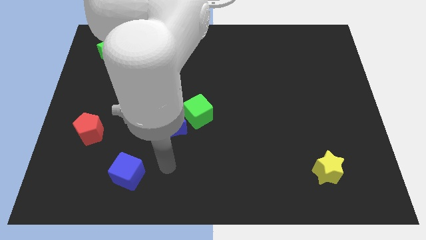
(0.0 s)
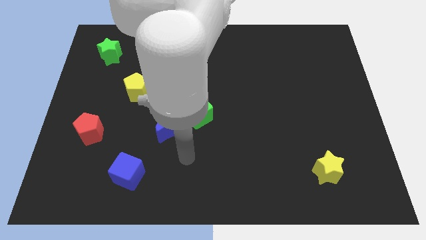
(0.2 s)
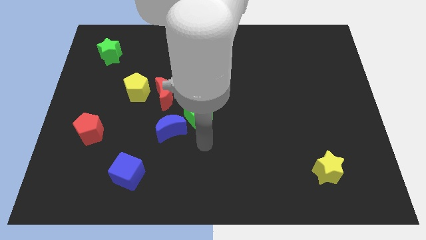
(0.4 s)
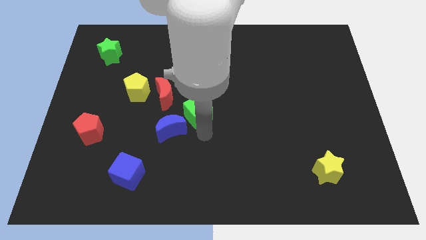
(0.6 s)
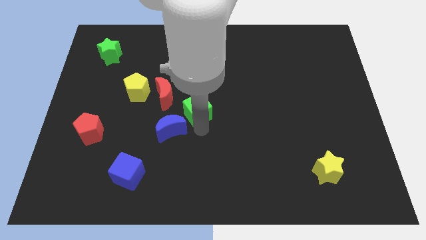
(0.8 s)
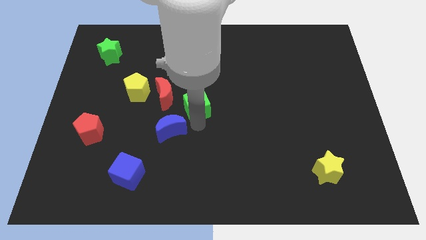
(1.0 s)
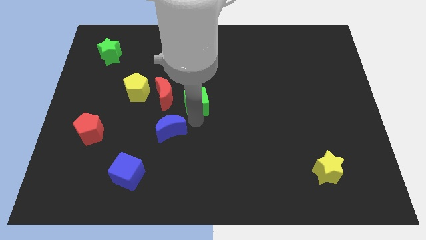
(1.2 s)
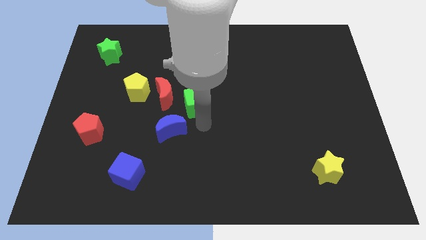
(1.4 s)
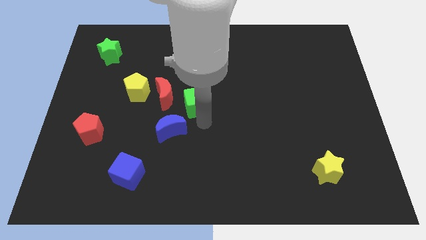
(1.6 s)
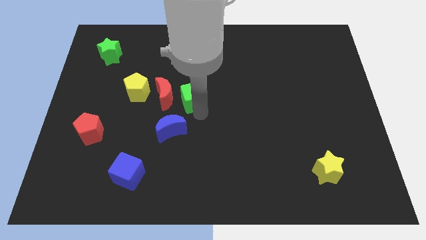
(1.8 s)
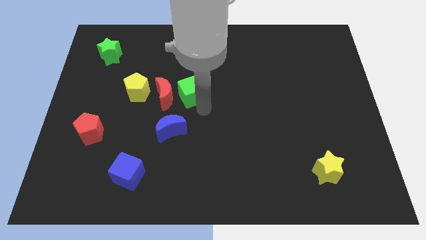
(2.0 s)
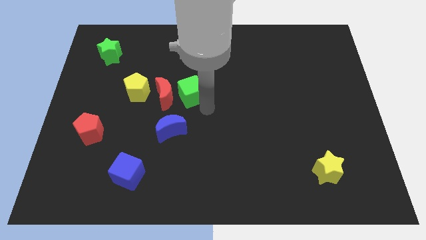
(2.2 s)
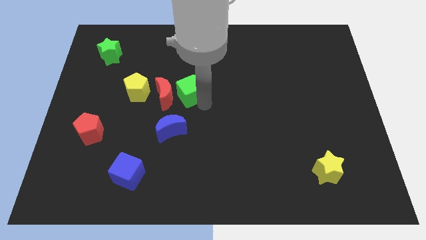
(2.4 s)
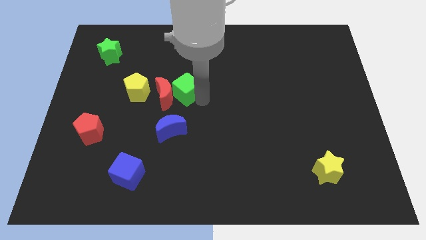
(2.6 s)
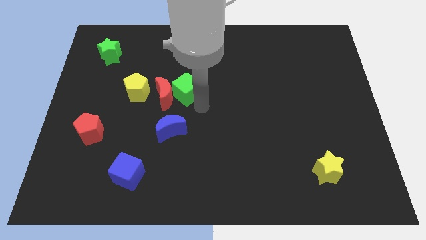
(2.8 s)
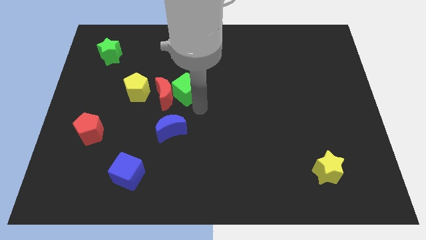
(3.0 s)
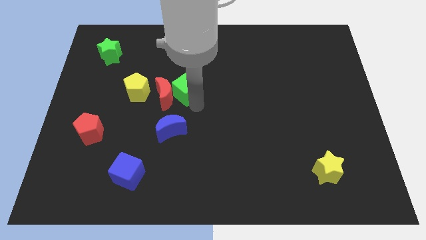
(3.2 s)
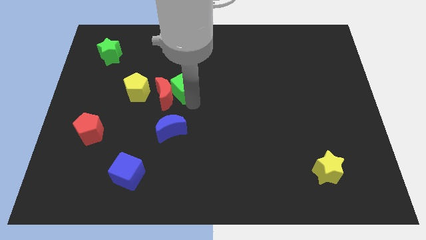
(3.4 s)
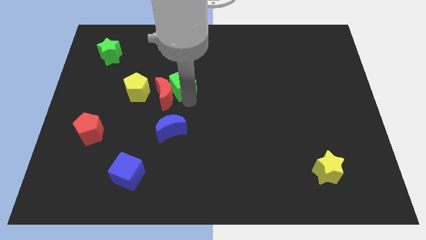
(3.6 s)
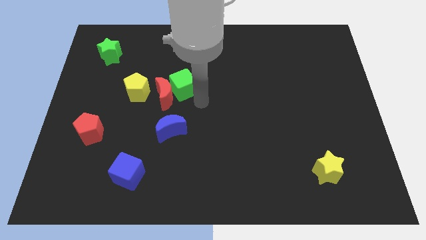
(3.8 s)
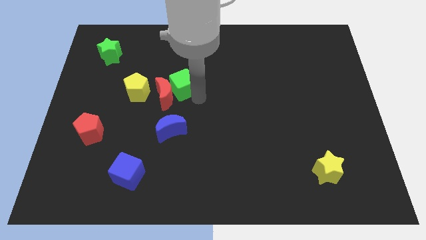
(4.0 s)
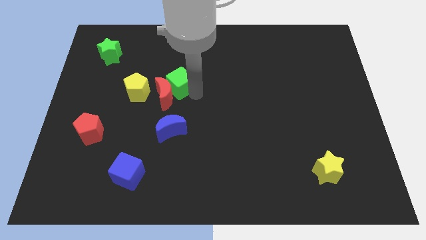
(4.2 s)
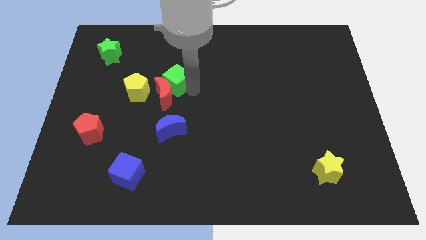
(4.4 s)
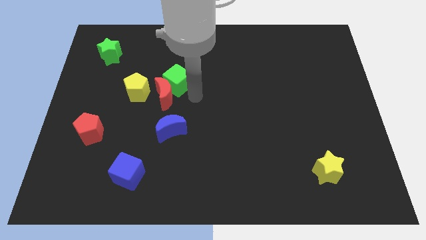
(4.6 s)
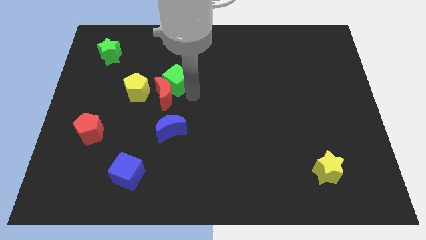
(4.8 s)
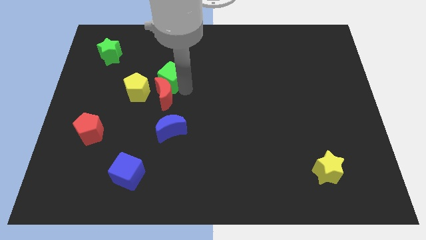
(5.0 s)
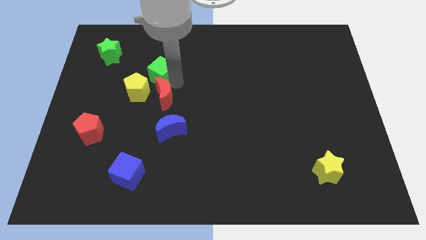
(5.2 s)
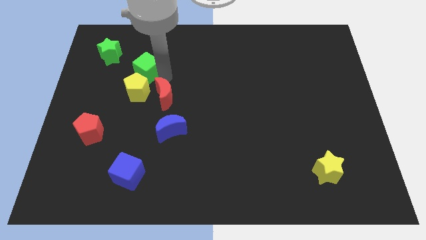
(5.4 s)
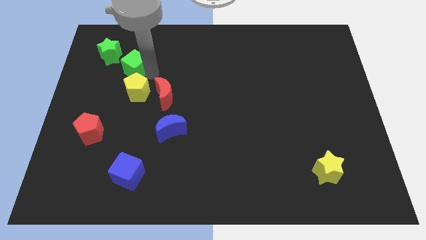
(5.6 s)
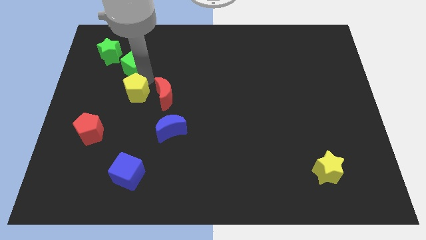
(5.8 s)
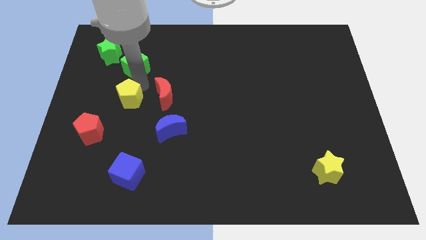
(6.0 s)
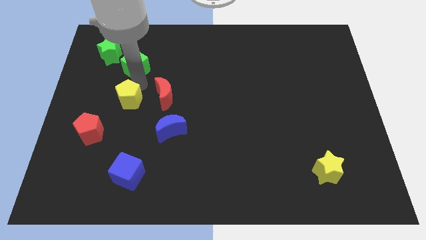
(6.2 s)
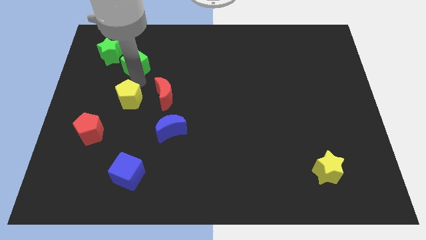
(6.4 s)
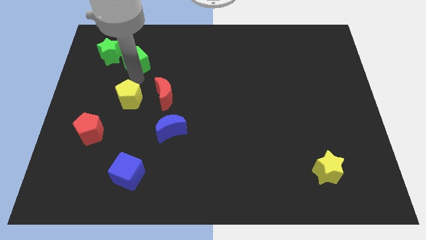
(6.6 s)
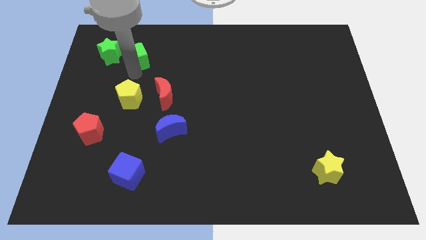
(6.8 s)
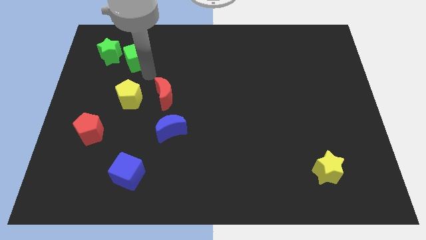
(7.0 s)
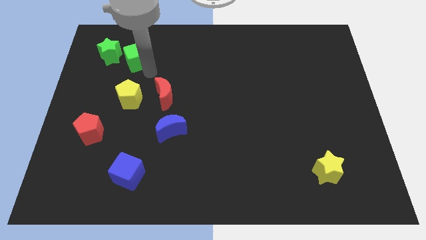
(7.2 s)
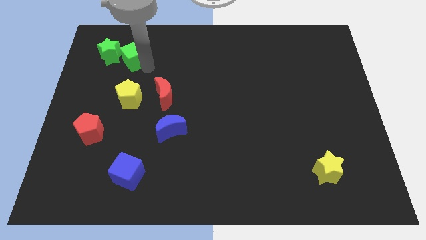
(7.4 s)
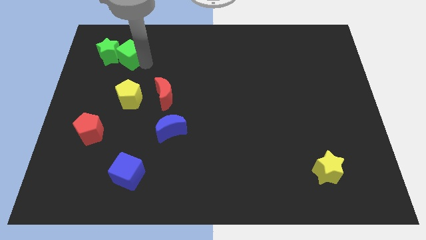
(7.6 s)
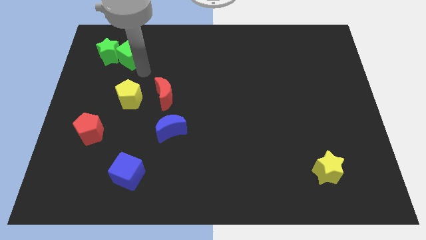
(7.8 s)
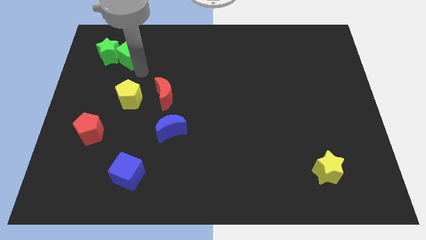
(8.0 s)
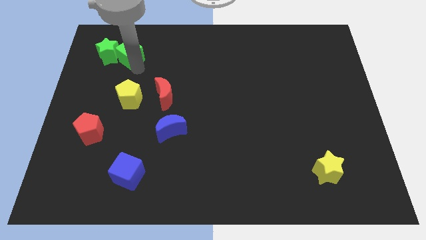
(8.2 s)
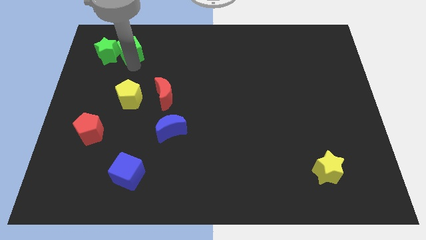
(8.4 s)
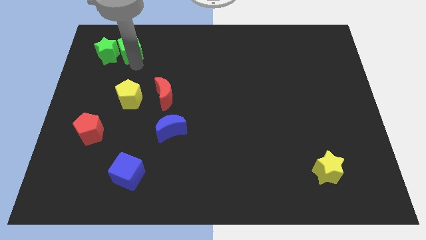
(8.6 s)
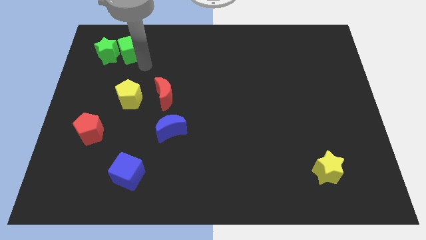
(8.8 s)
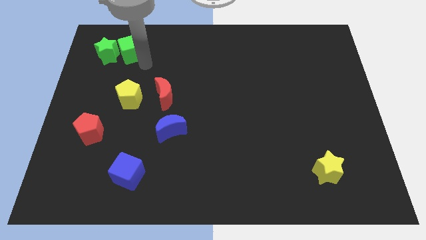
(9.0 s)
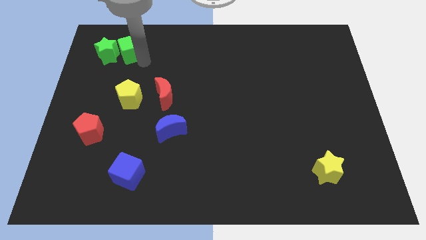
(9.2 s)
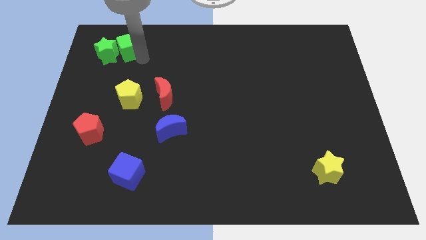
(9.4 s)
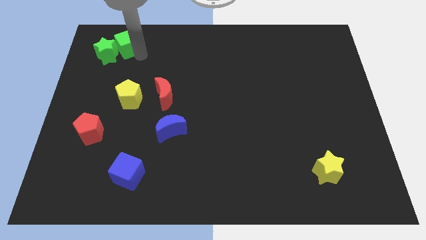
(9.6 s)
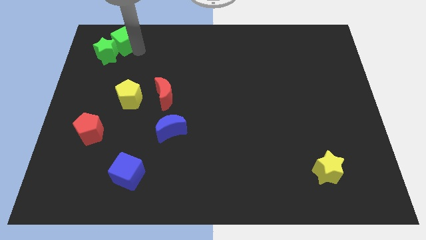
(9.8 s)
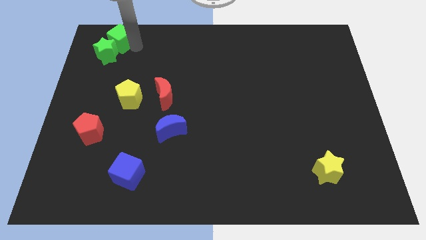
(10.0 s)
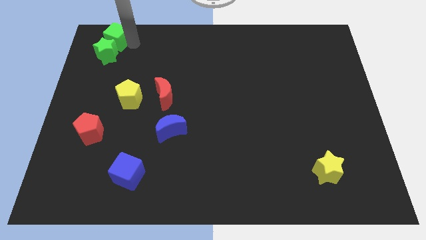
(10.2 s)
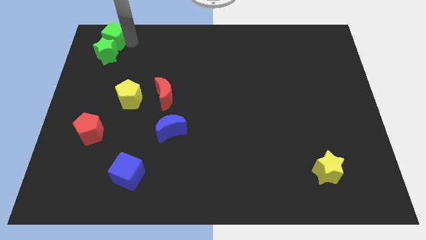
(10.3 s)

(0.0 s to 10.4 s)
put the green cube to the top left of the board

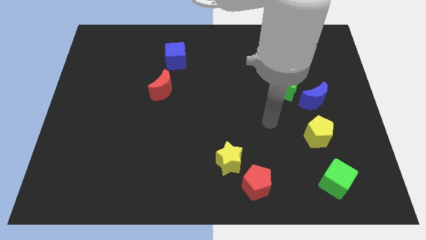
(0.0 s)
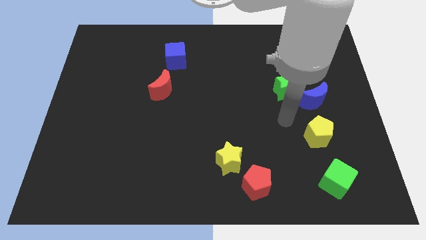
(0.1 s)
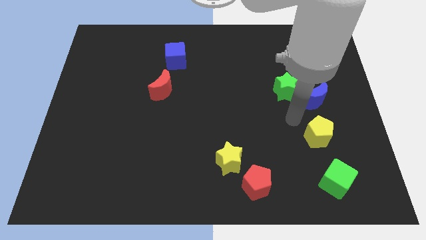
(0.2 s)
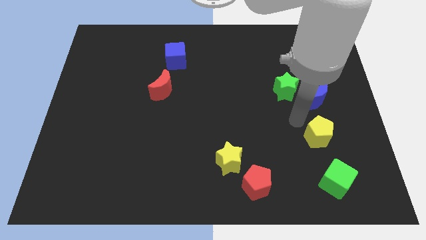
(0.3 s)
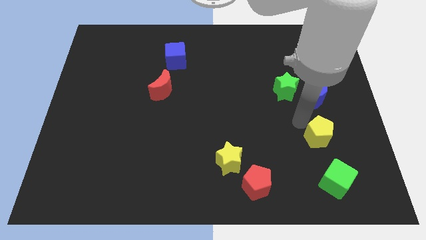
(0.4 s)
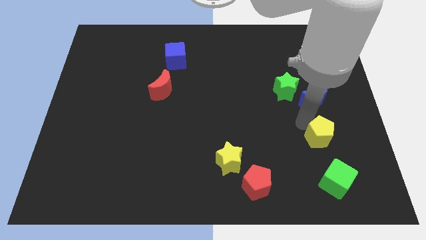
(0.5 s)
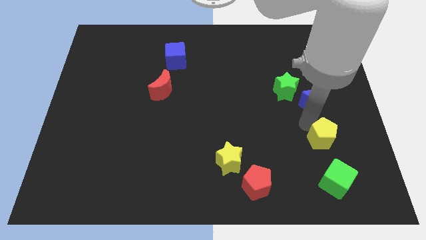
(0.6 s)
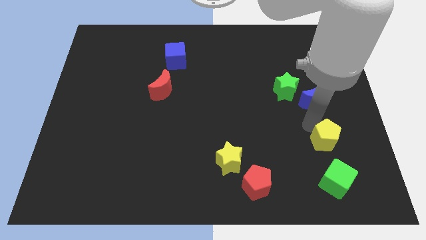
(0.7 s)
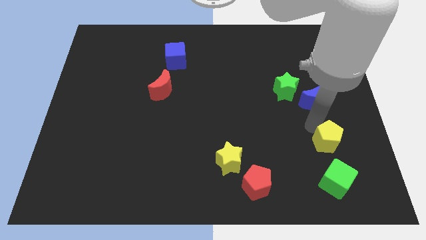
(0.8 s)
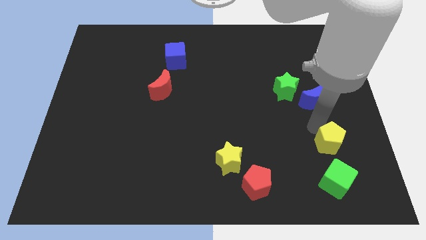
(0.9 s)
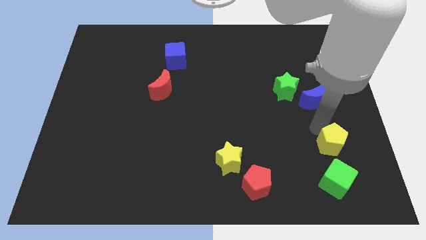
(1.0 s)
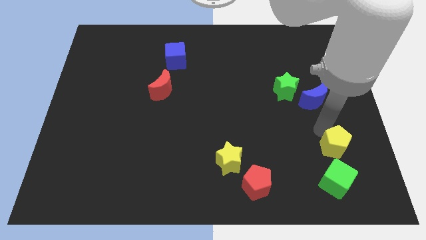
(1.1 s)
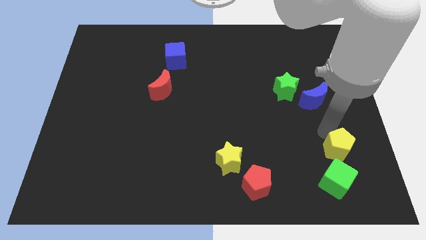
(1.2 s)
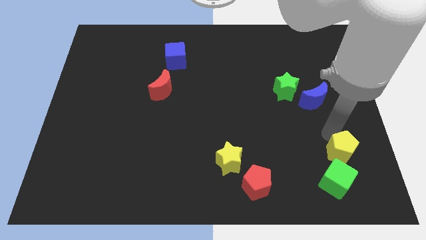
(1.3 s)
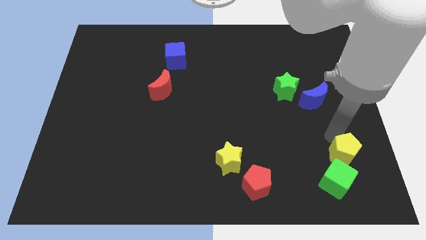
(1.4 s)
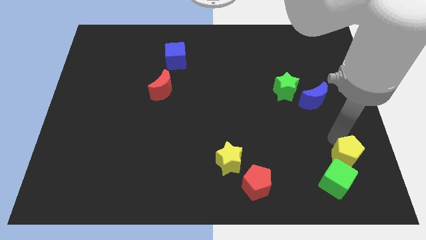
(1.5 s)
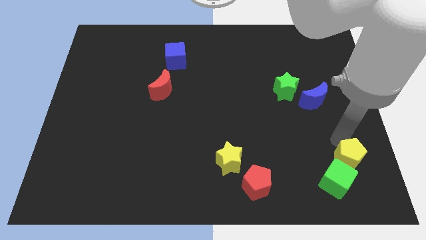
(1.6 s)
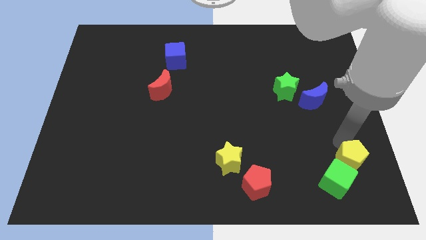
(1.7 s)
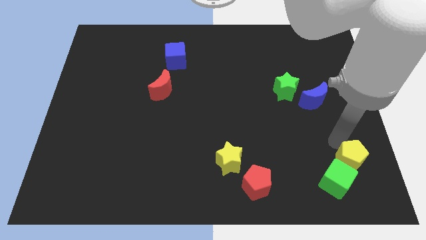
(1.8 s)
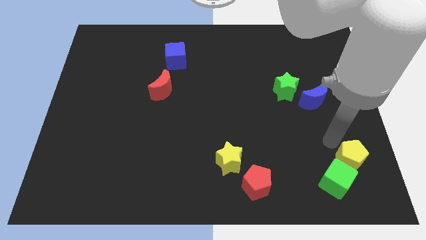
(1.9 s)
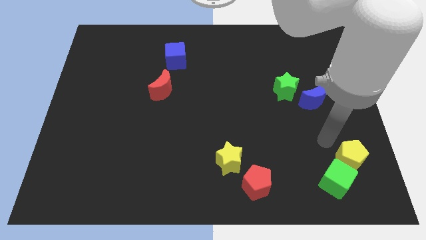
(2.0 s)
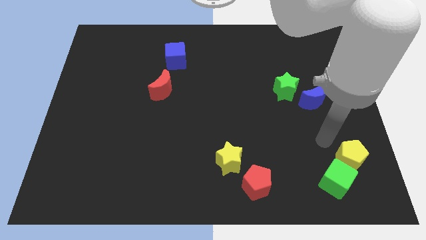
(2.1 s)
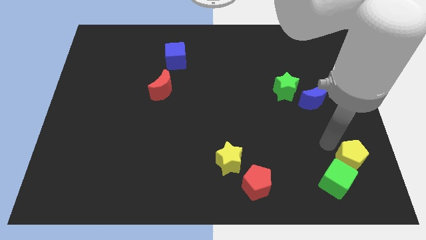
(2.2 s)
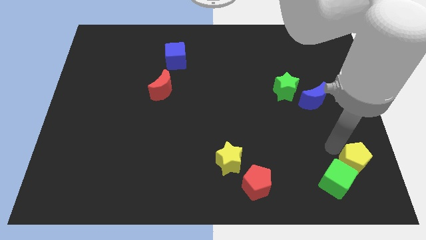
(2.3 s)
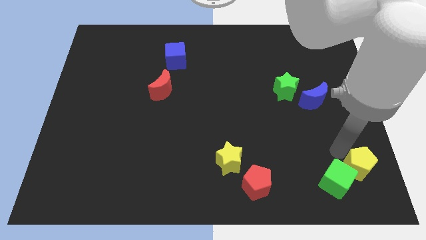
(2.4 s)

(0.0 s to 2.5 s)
move the yellow pentagon to the lower right corner
